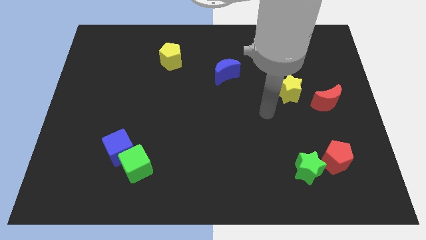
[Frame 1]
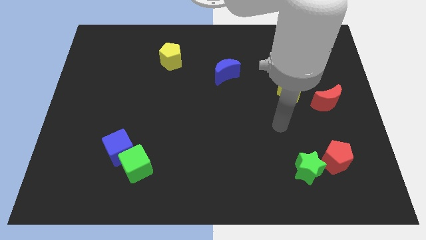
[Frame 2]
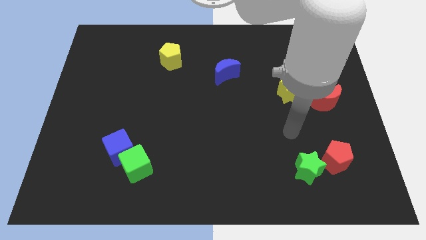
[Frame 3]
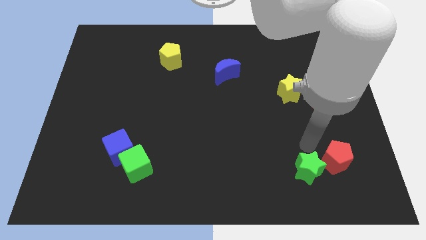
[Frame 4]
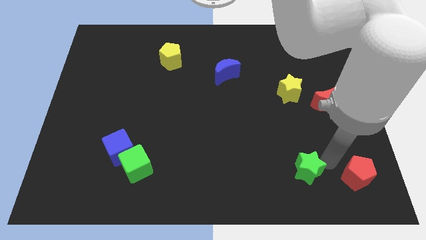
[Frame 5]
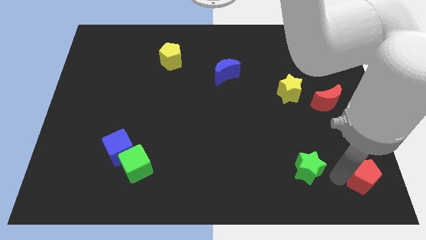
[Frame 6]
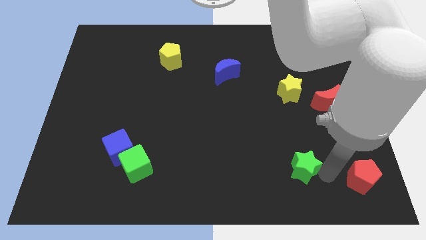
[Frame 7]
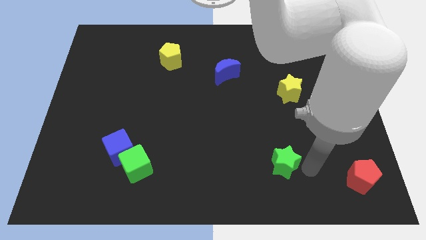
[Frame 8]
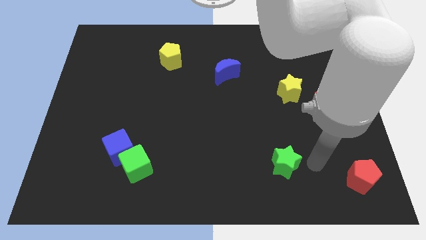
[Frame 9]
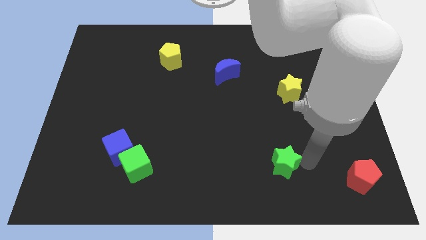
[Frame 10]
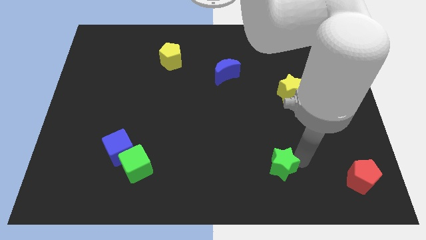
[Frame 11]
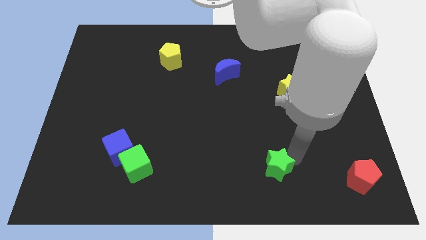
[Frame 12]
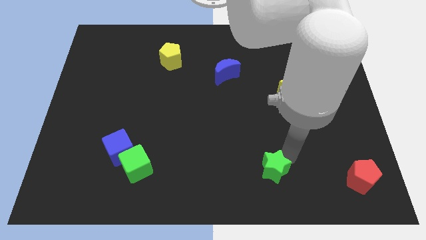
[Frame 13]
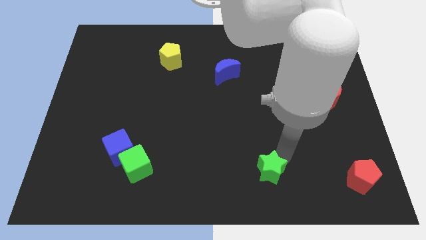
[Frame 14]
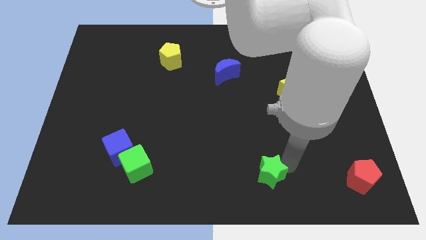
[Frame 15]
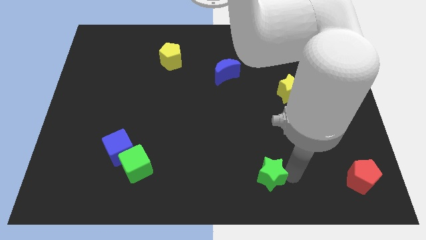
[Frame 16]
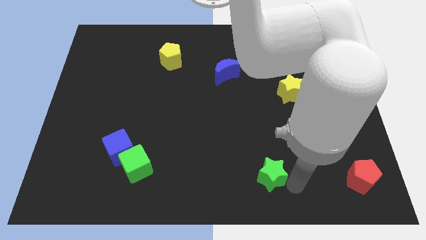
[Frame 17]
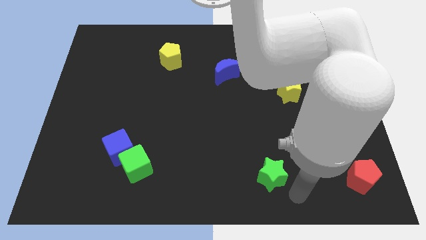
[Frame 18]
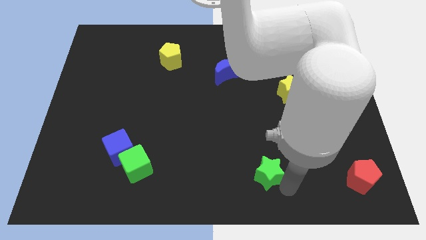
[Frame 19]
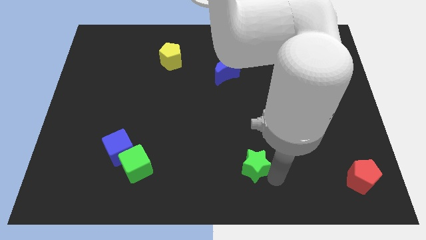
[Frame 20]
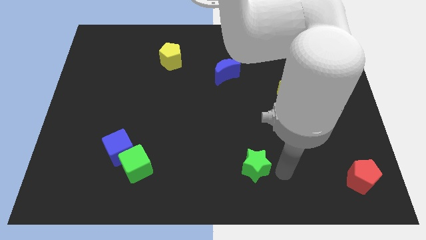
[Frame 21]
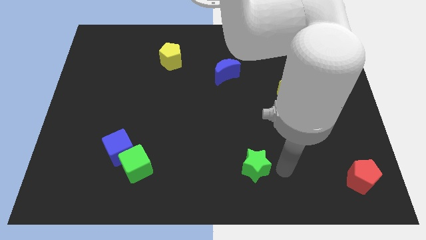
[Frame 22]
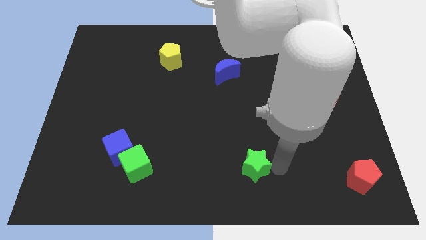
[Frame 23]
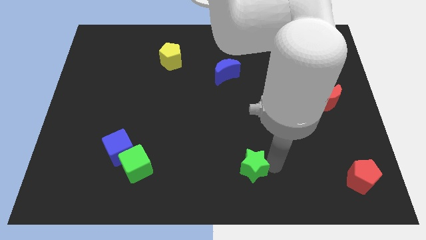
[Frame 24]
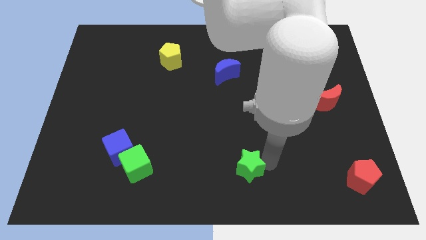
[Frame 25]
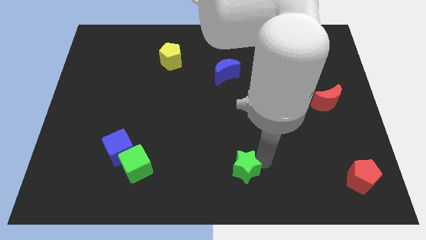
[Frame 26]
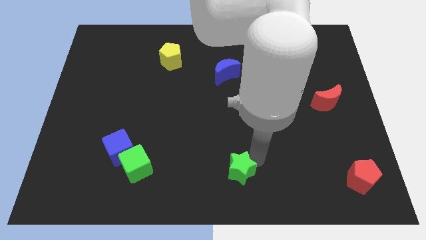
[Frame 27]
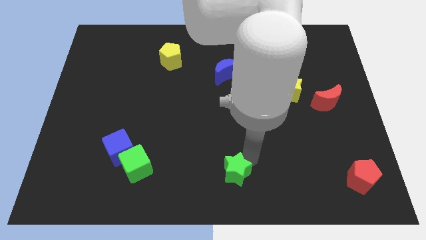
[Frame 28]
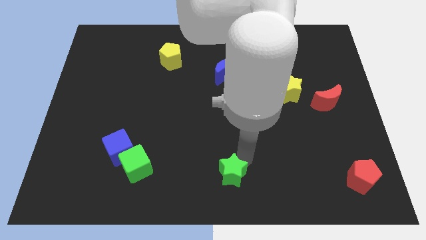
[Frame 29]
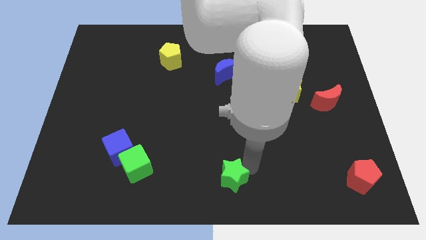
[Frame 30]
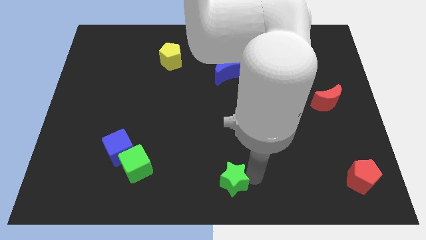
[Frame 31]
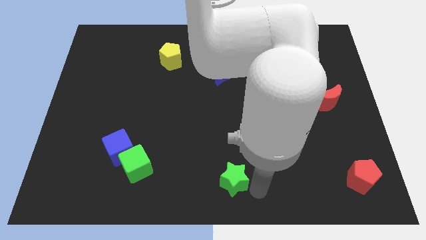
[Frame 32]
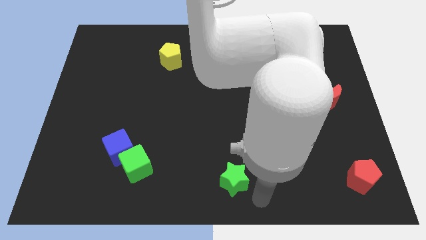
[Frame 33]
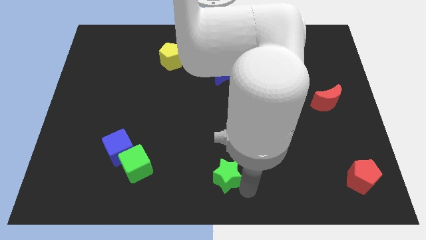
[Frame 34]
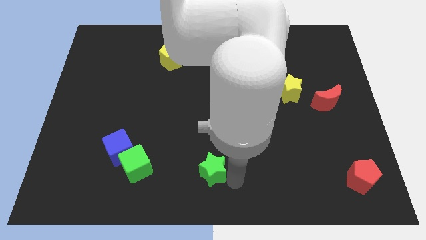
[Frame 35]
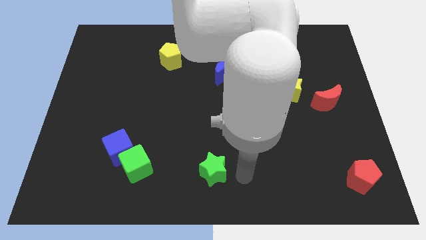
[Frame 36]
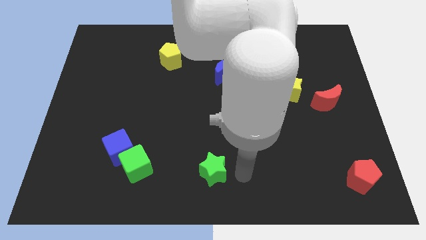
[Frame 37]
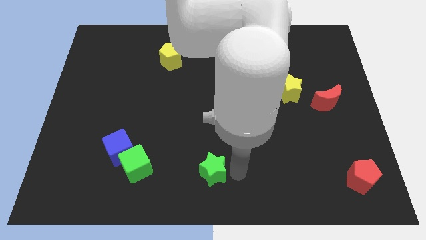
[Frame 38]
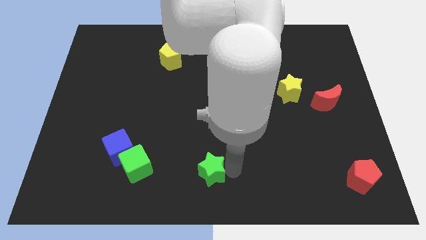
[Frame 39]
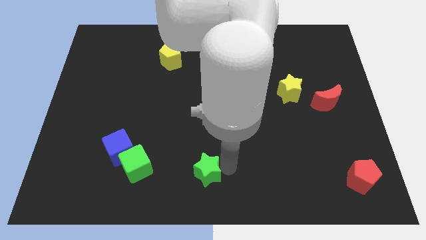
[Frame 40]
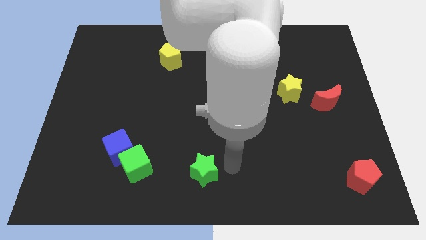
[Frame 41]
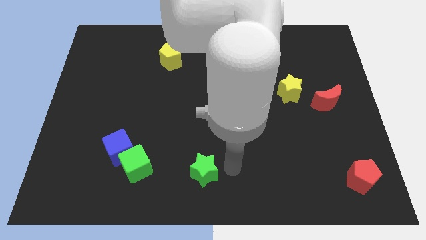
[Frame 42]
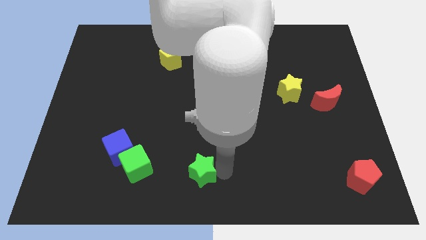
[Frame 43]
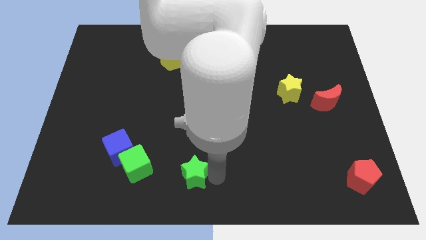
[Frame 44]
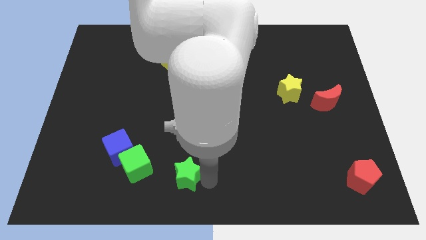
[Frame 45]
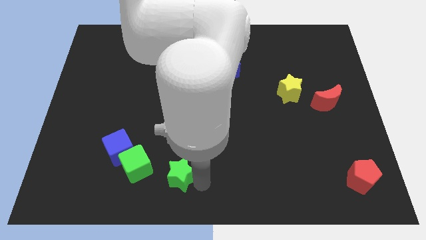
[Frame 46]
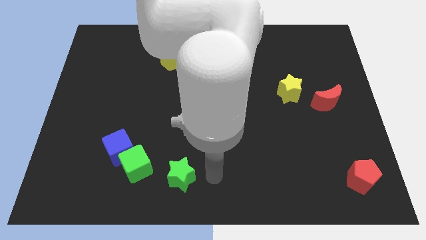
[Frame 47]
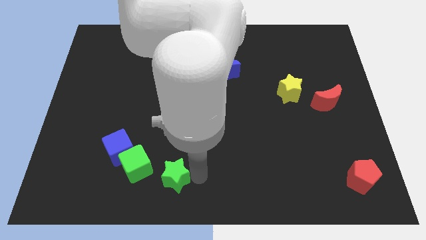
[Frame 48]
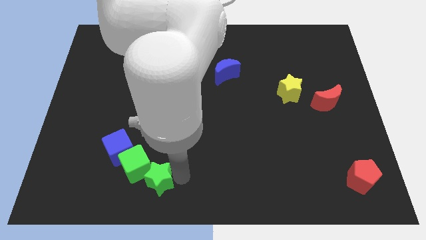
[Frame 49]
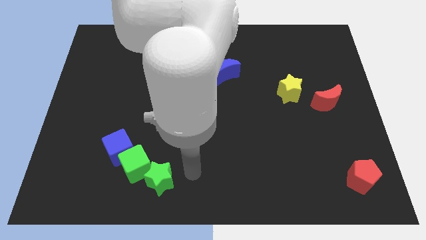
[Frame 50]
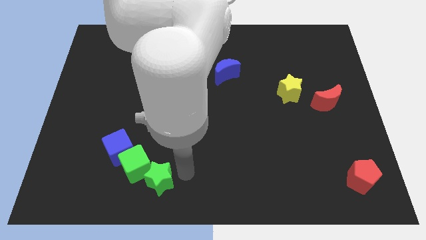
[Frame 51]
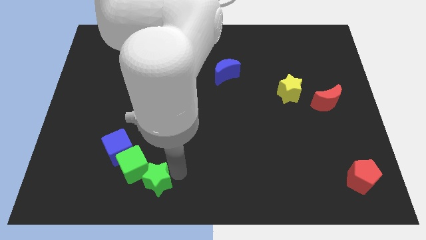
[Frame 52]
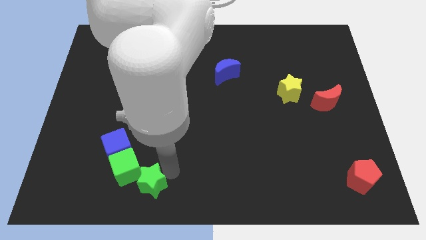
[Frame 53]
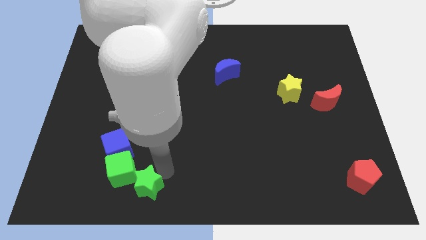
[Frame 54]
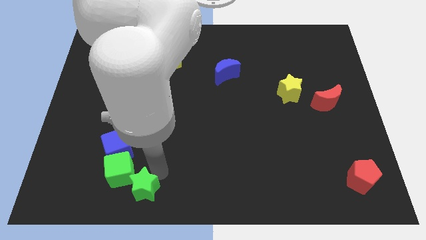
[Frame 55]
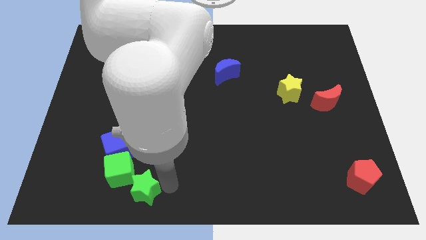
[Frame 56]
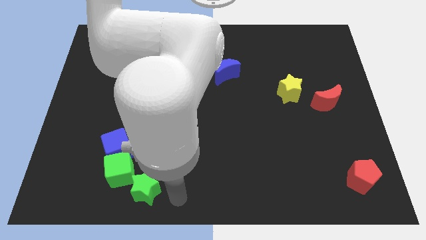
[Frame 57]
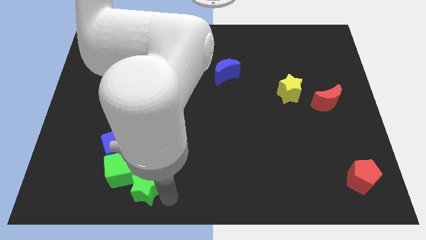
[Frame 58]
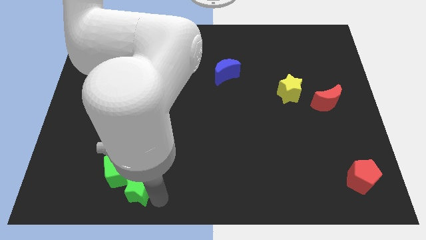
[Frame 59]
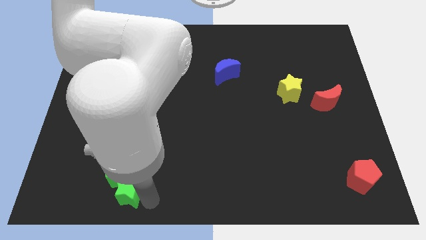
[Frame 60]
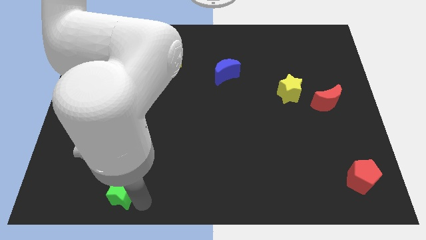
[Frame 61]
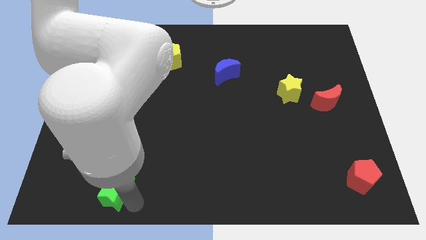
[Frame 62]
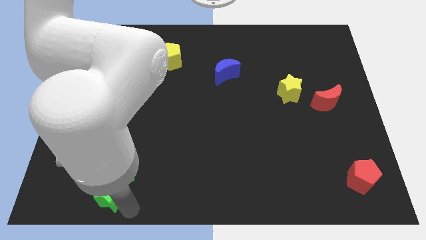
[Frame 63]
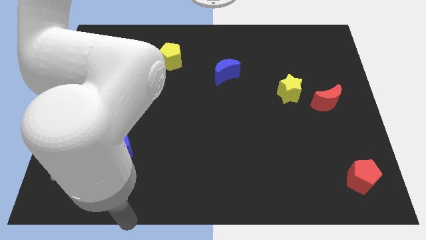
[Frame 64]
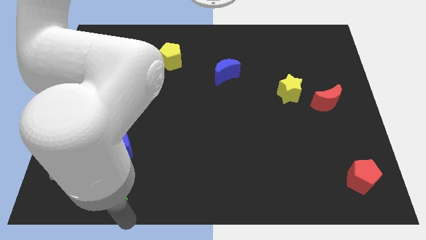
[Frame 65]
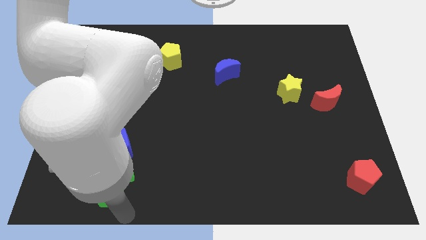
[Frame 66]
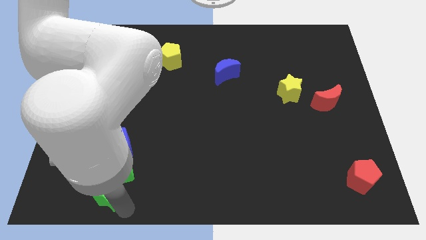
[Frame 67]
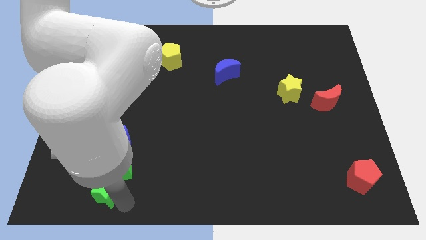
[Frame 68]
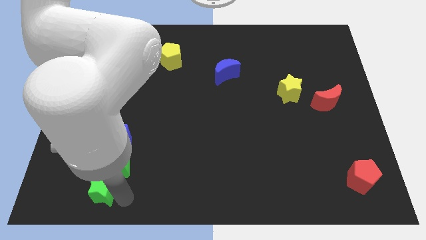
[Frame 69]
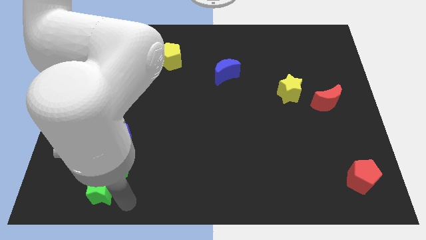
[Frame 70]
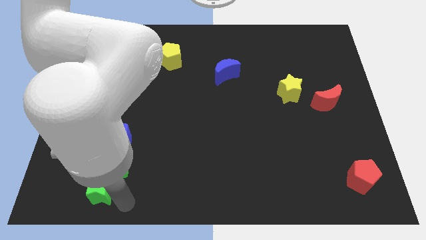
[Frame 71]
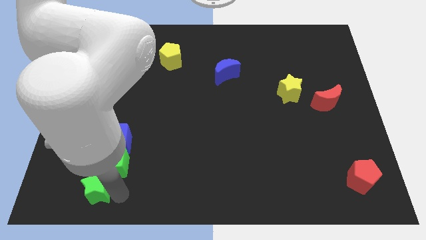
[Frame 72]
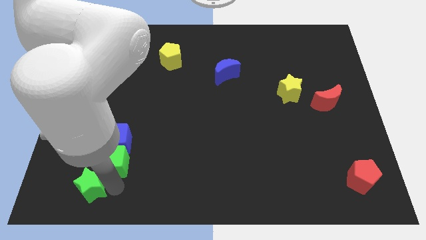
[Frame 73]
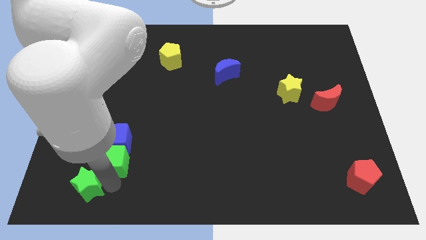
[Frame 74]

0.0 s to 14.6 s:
push the green star to the left side of the green cube

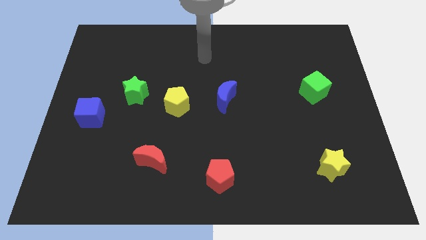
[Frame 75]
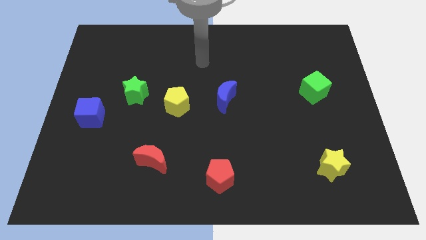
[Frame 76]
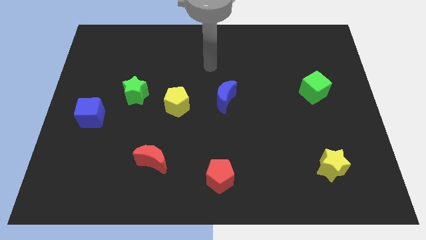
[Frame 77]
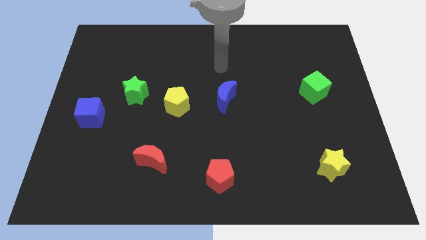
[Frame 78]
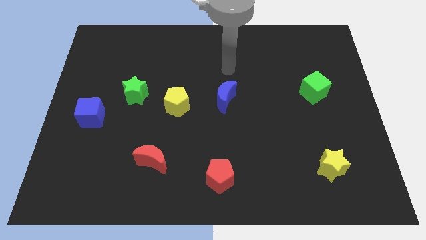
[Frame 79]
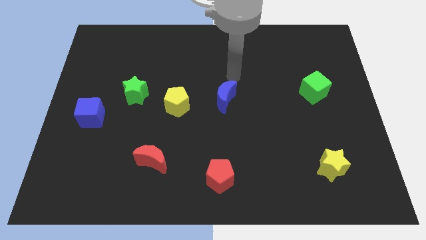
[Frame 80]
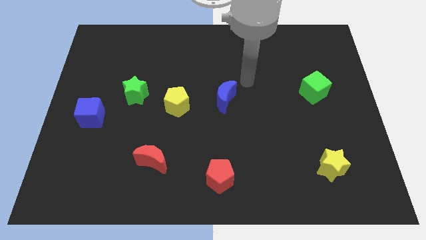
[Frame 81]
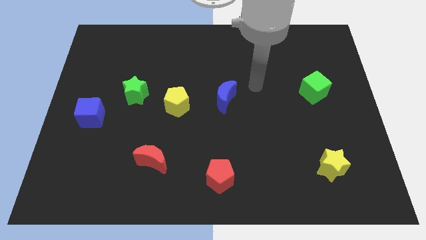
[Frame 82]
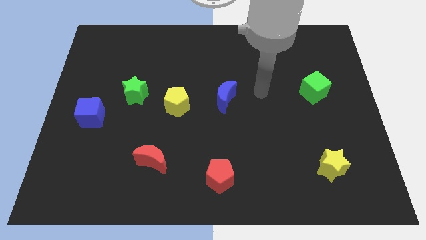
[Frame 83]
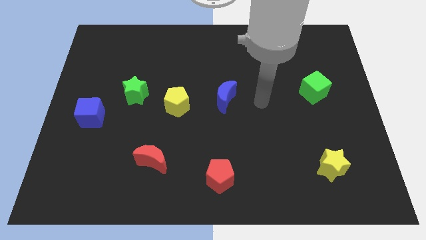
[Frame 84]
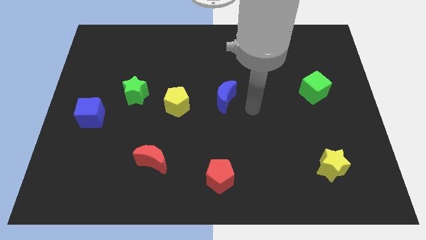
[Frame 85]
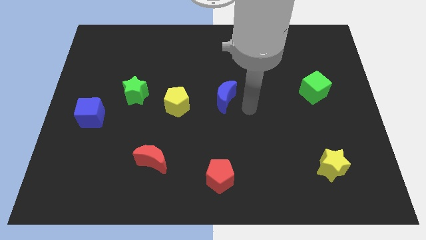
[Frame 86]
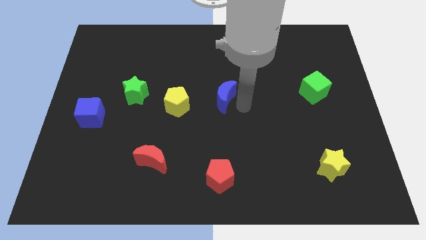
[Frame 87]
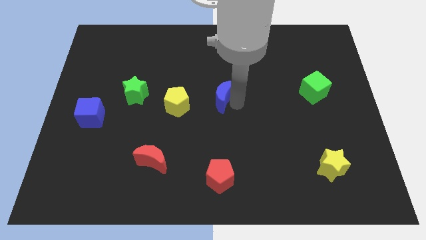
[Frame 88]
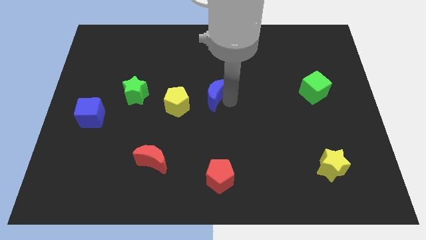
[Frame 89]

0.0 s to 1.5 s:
push the blue moon to the top right of the yellow pentagon
